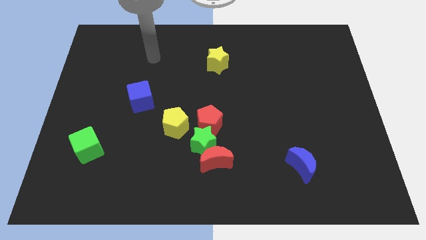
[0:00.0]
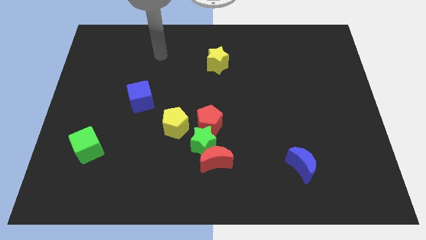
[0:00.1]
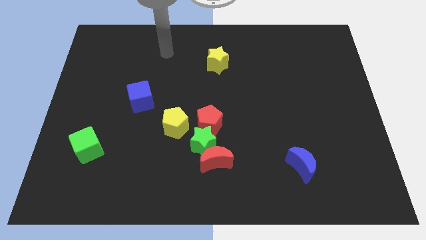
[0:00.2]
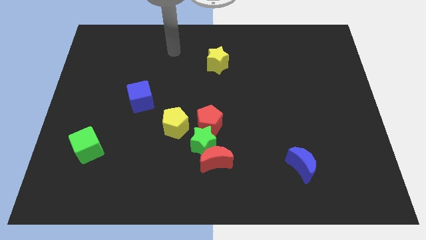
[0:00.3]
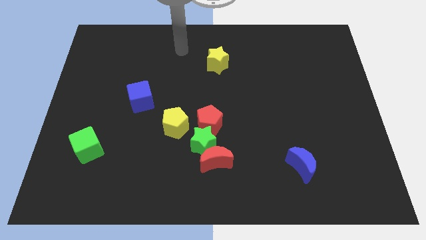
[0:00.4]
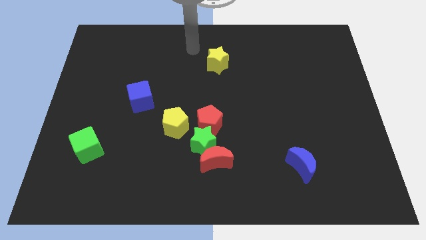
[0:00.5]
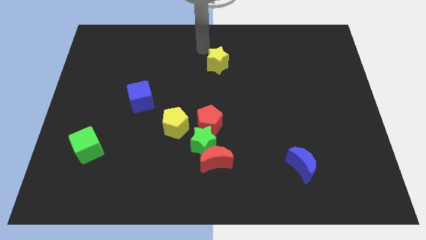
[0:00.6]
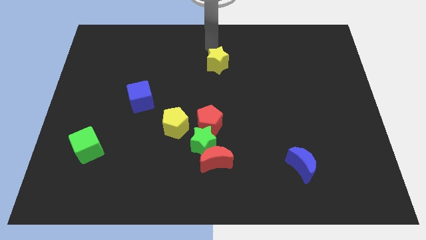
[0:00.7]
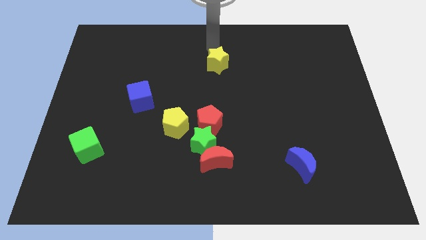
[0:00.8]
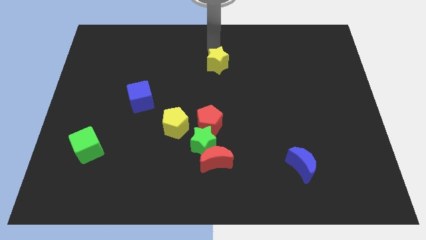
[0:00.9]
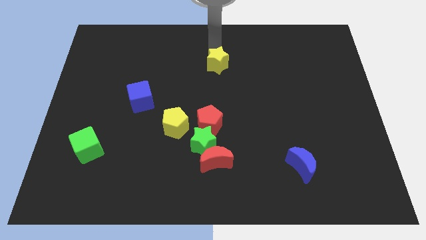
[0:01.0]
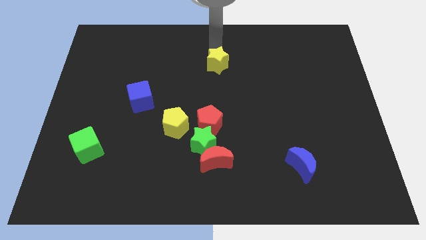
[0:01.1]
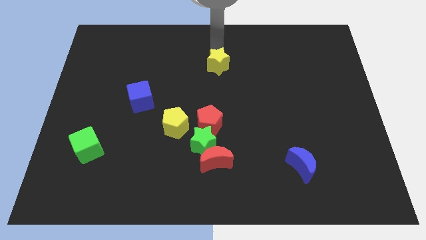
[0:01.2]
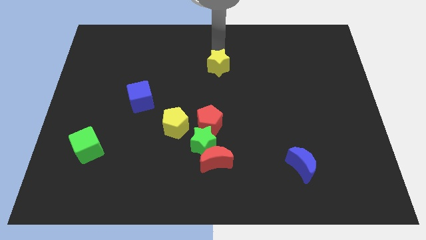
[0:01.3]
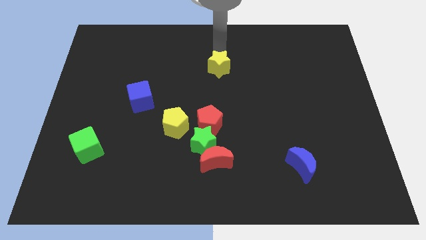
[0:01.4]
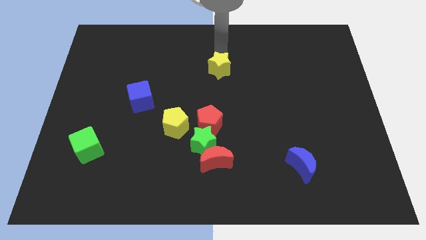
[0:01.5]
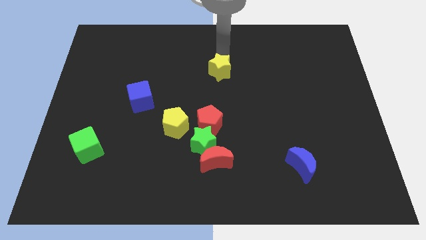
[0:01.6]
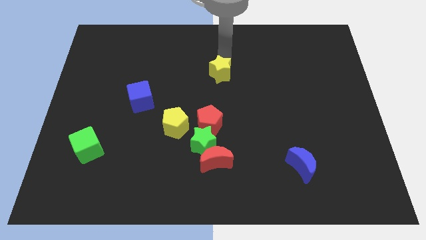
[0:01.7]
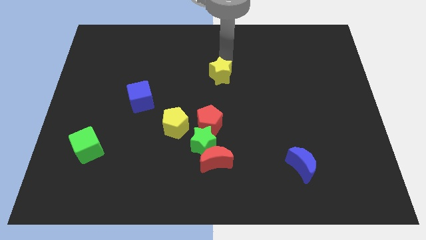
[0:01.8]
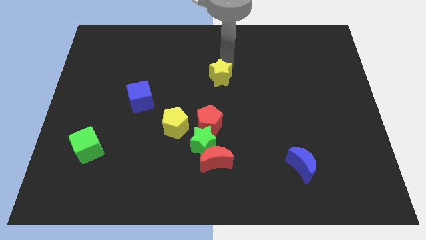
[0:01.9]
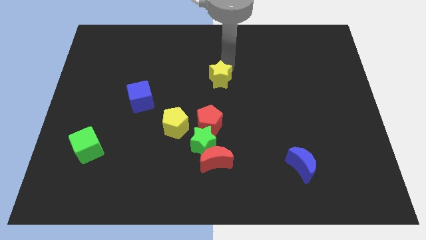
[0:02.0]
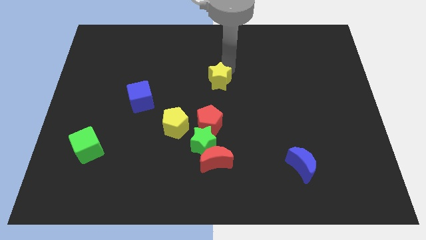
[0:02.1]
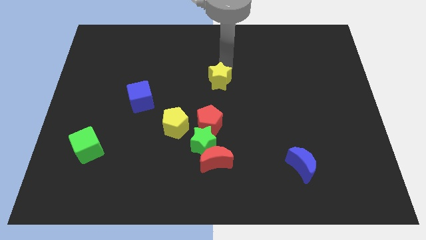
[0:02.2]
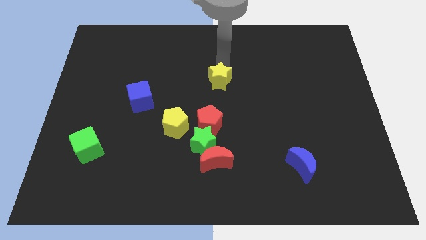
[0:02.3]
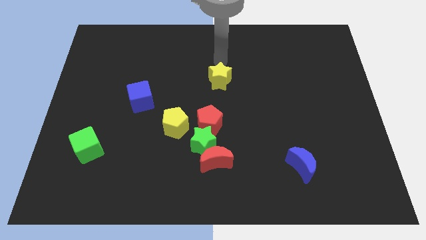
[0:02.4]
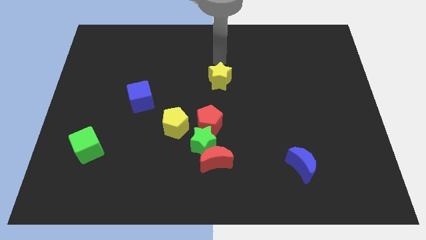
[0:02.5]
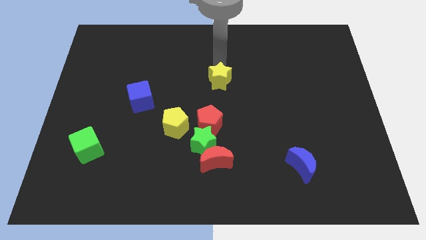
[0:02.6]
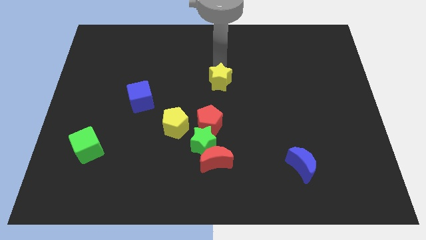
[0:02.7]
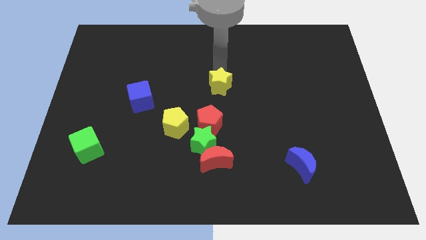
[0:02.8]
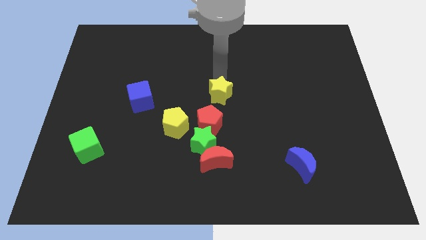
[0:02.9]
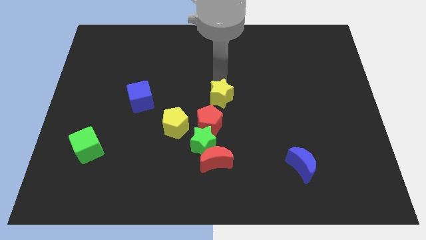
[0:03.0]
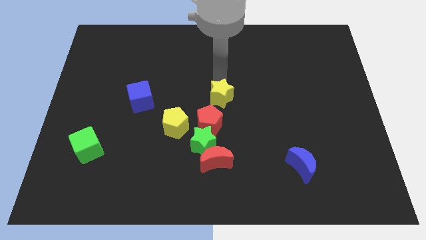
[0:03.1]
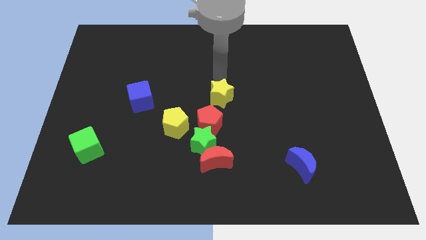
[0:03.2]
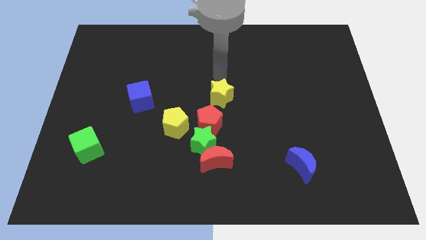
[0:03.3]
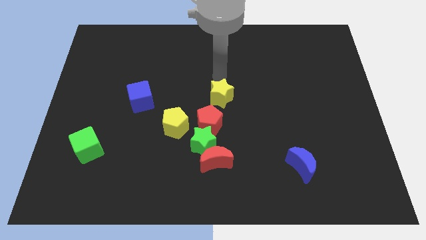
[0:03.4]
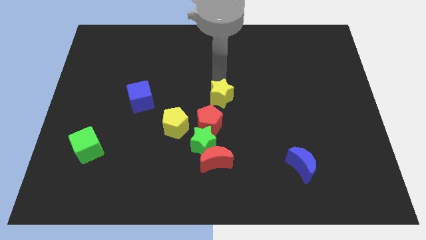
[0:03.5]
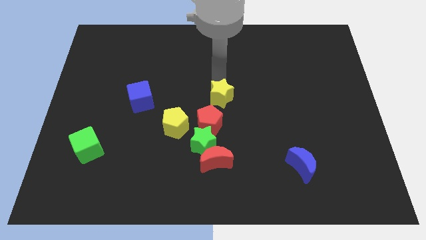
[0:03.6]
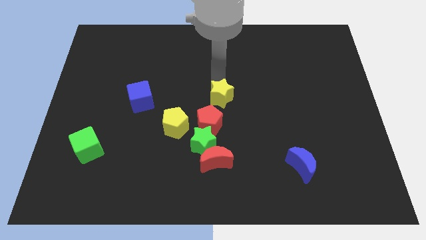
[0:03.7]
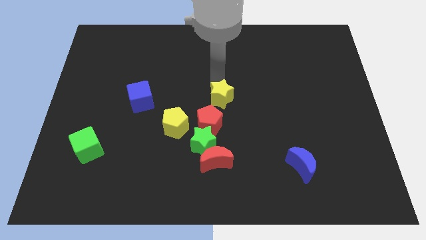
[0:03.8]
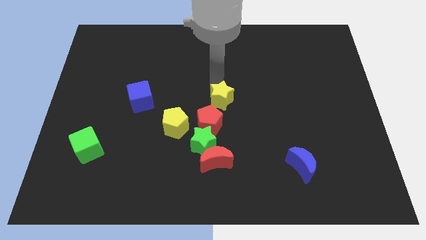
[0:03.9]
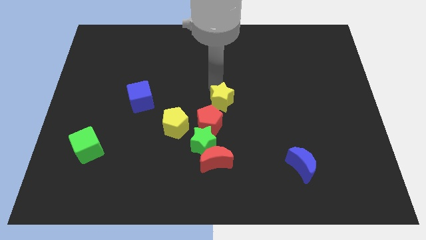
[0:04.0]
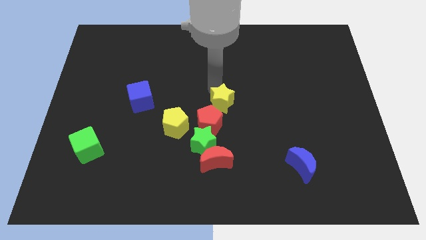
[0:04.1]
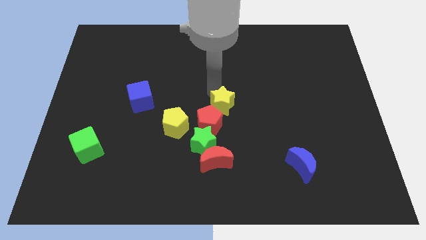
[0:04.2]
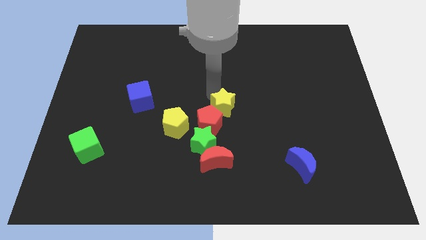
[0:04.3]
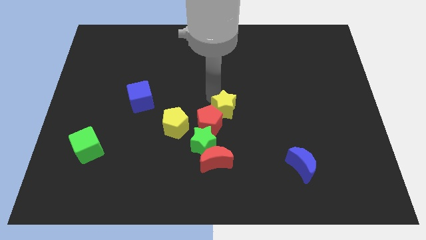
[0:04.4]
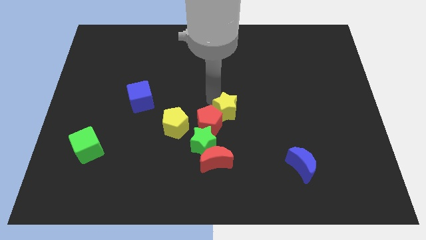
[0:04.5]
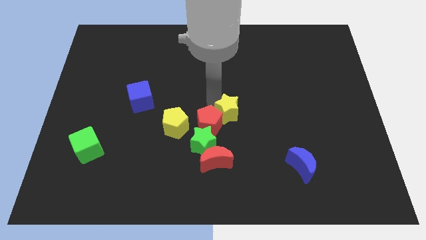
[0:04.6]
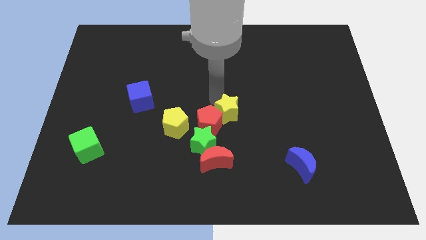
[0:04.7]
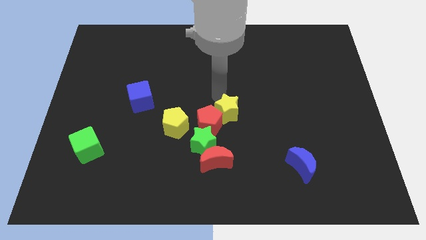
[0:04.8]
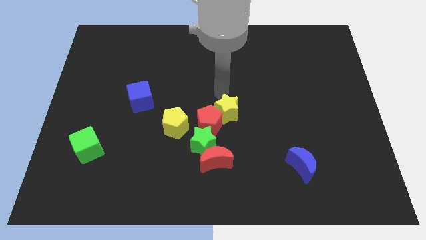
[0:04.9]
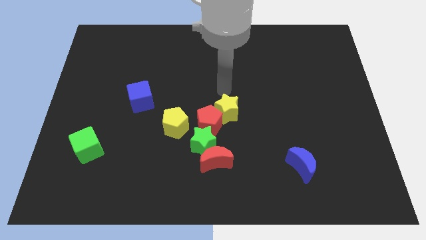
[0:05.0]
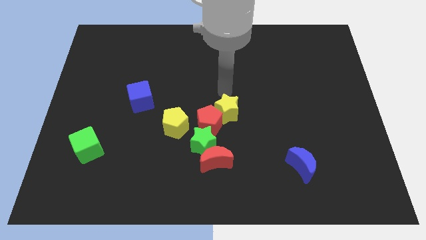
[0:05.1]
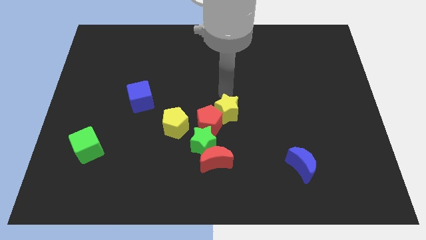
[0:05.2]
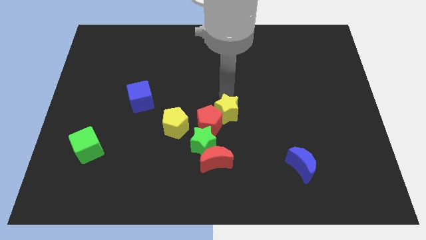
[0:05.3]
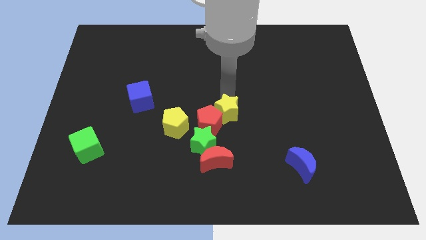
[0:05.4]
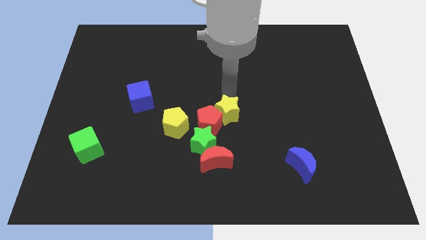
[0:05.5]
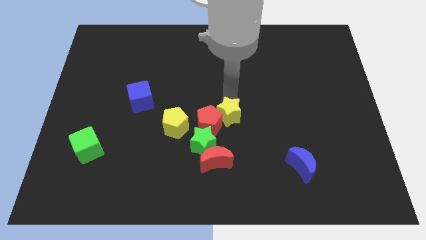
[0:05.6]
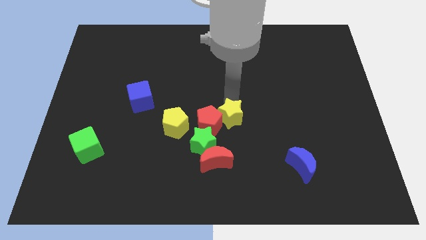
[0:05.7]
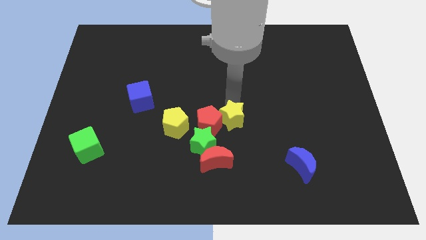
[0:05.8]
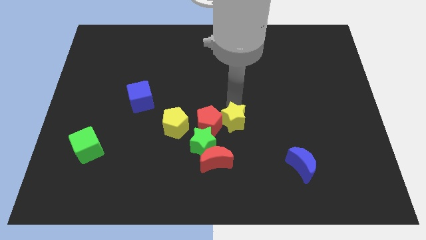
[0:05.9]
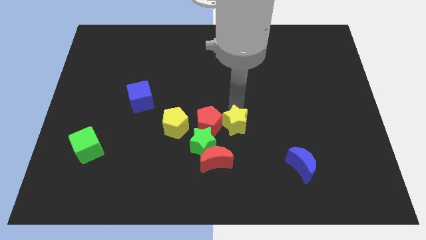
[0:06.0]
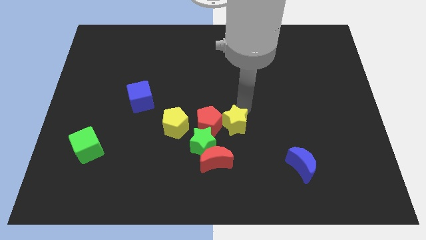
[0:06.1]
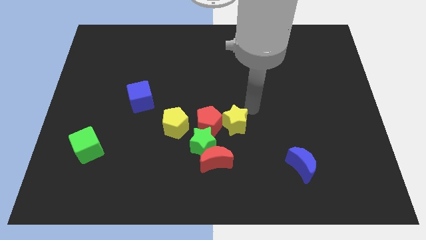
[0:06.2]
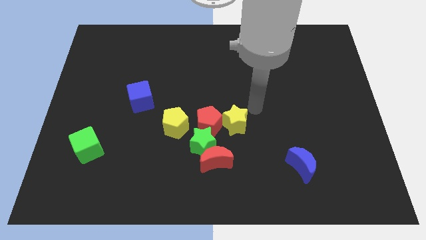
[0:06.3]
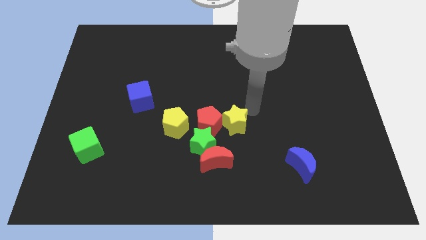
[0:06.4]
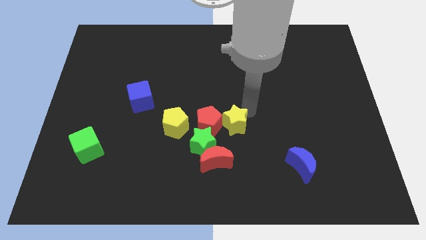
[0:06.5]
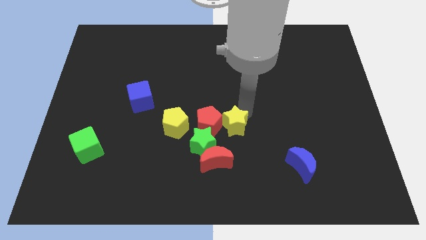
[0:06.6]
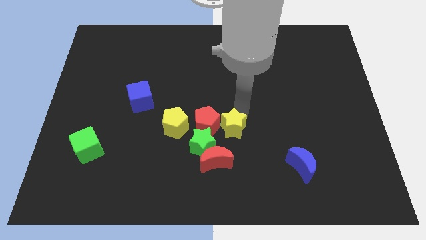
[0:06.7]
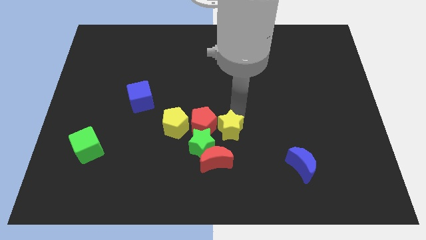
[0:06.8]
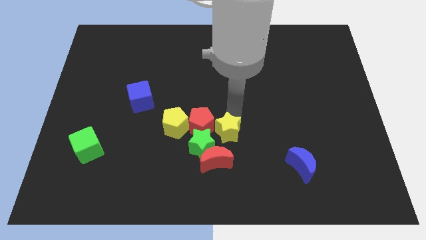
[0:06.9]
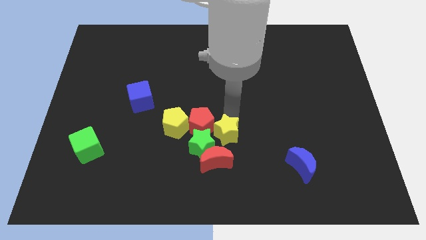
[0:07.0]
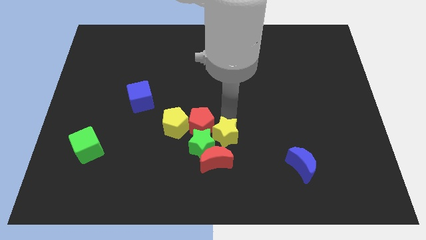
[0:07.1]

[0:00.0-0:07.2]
move the yellow star close to the green star

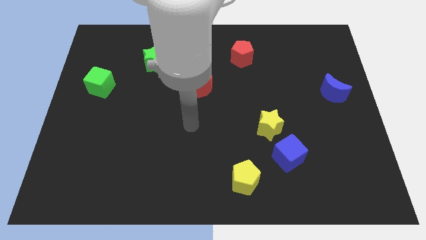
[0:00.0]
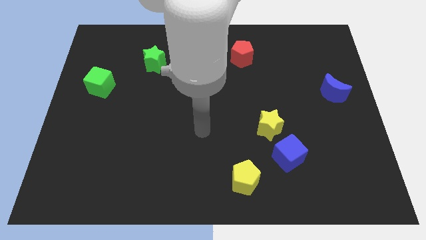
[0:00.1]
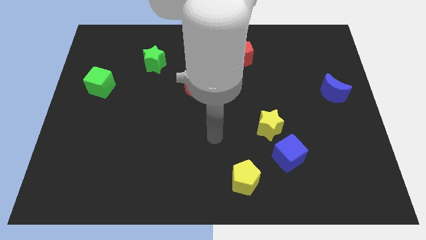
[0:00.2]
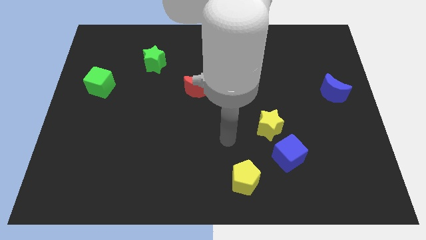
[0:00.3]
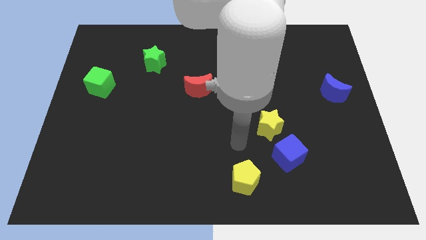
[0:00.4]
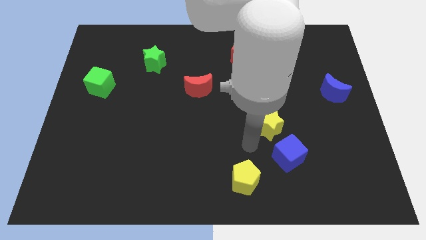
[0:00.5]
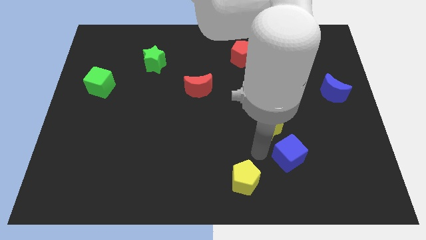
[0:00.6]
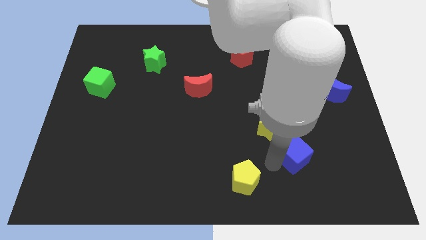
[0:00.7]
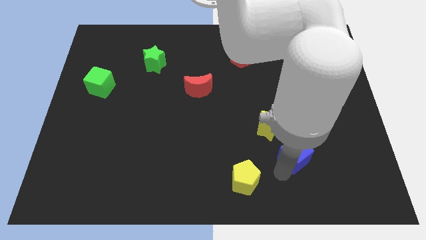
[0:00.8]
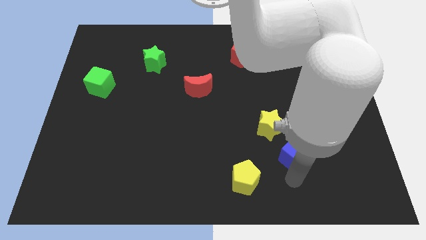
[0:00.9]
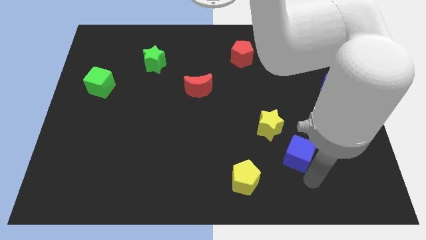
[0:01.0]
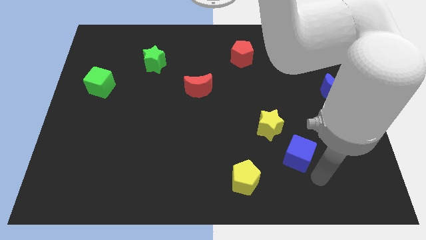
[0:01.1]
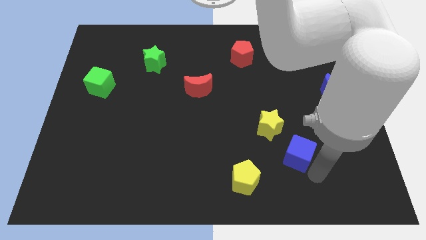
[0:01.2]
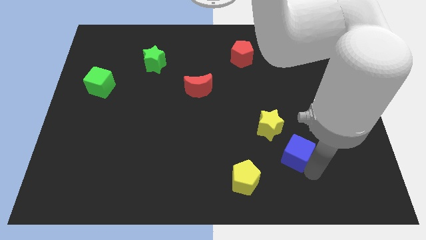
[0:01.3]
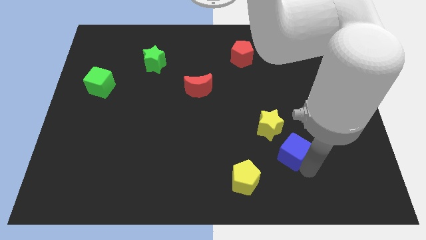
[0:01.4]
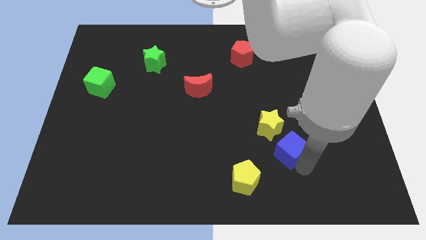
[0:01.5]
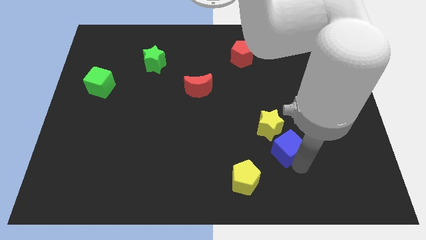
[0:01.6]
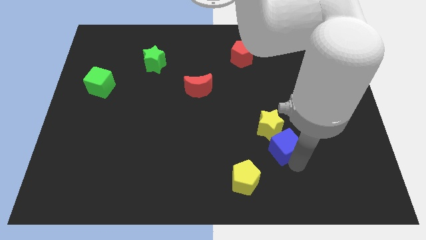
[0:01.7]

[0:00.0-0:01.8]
slide the blue cube close to the yellow star
